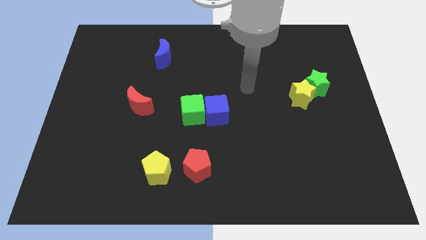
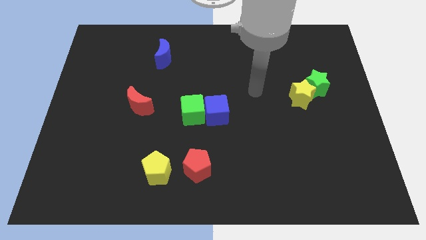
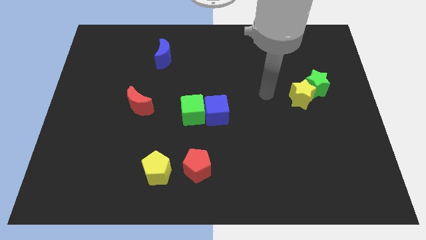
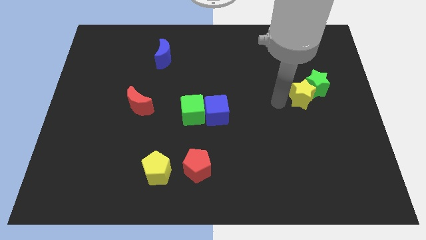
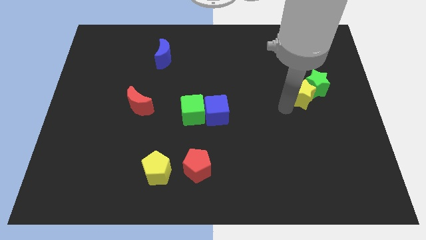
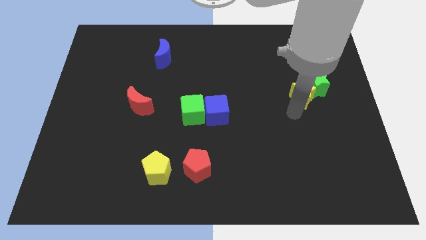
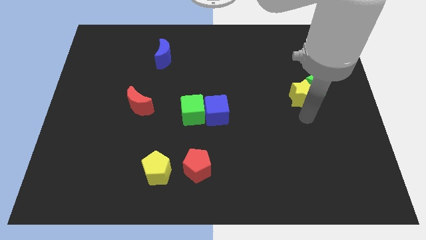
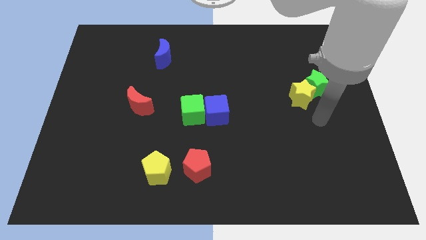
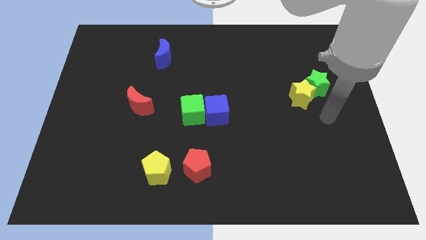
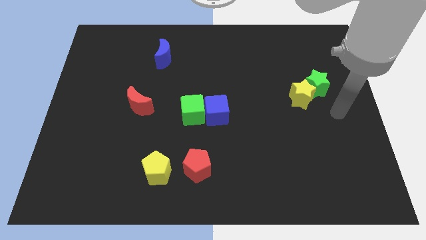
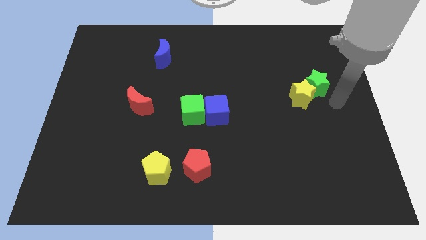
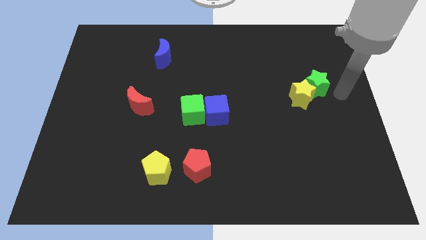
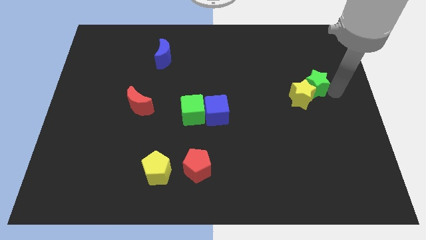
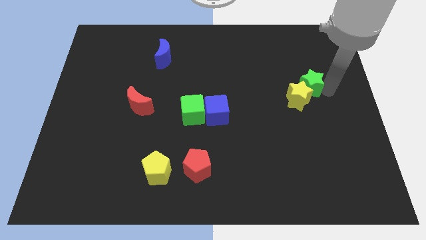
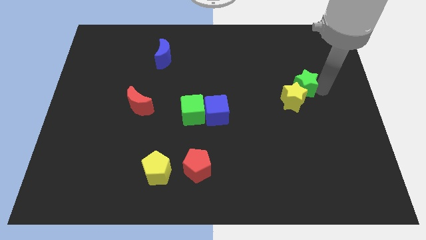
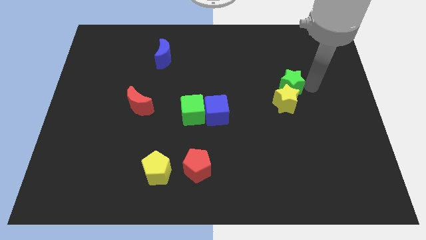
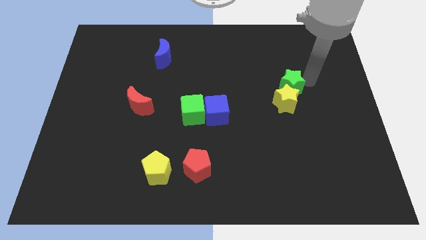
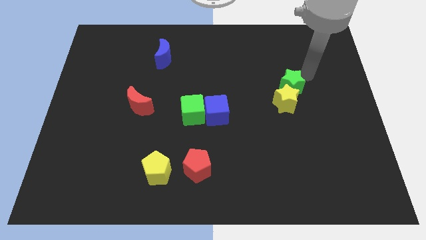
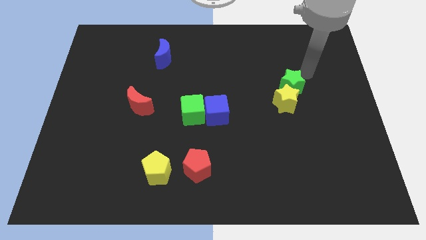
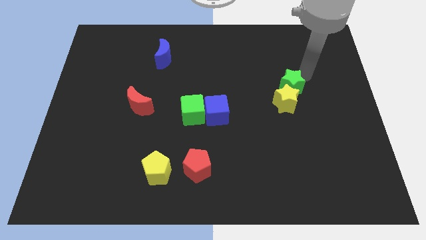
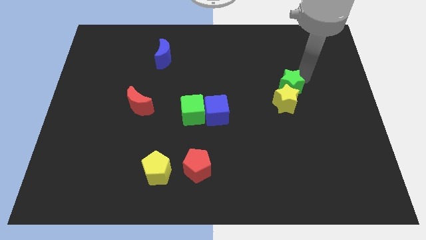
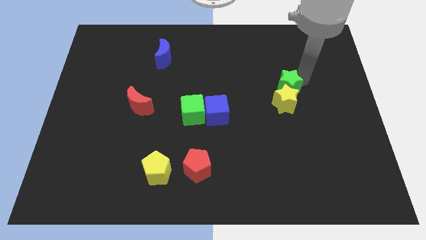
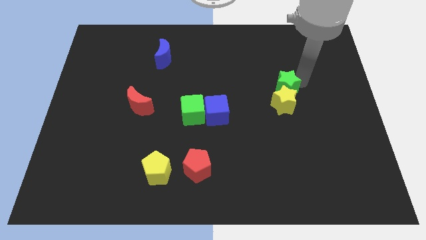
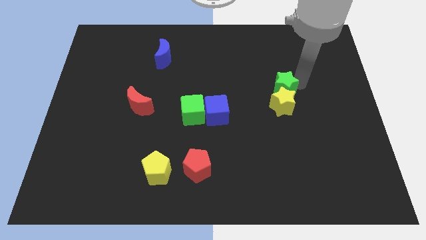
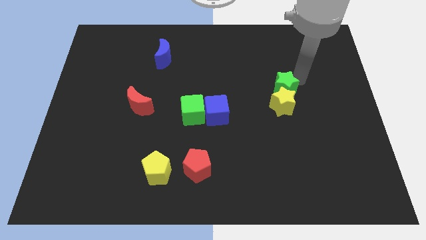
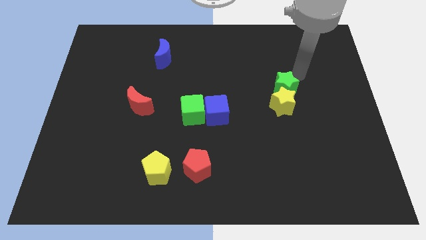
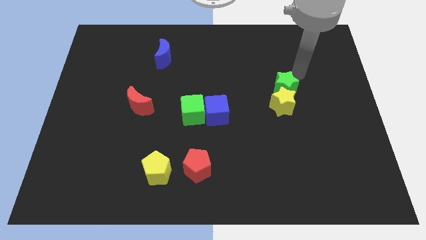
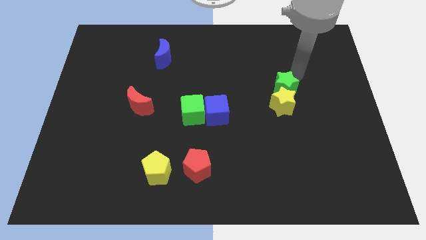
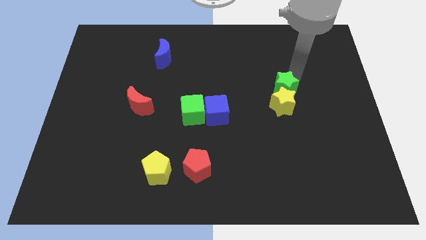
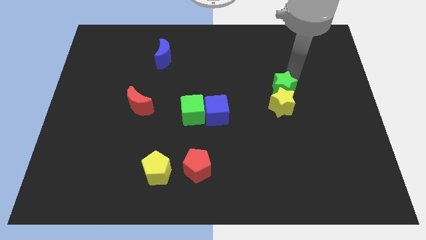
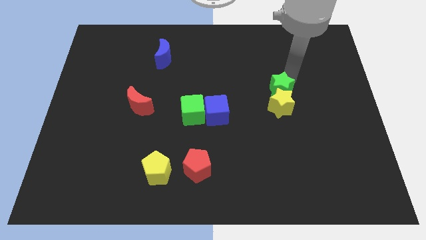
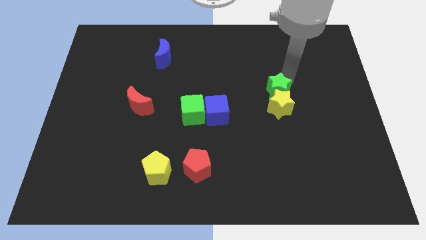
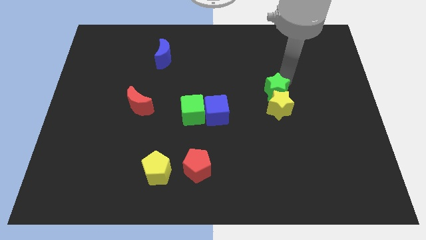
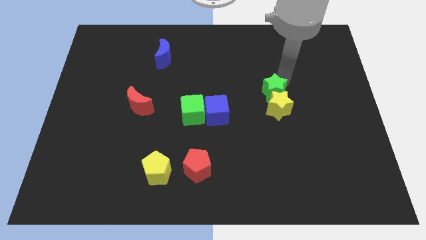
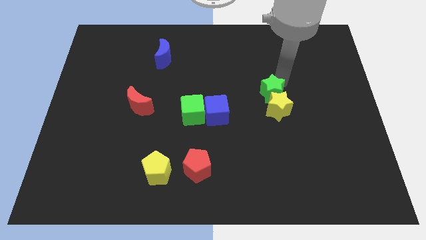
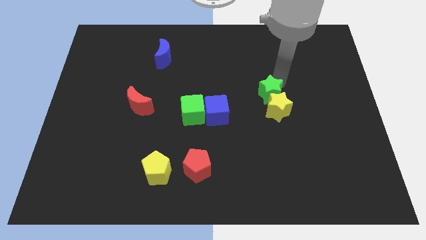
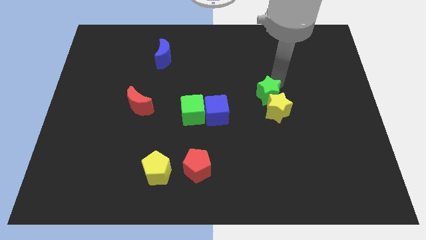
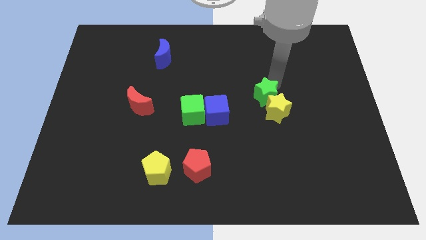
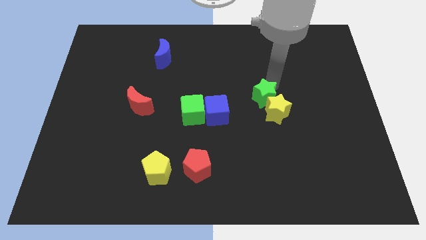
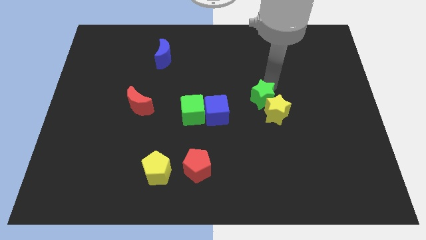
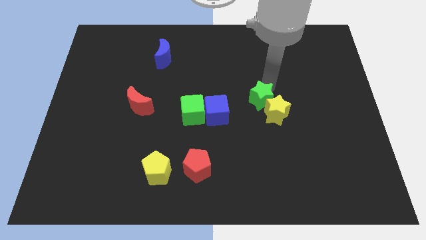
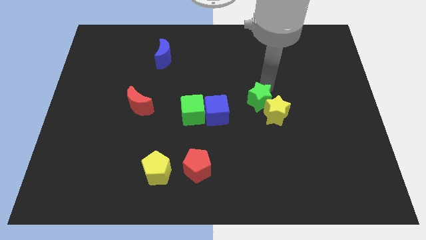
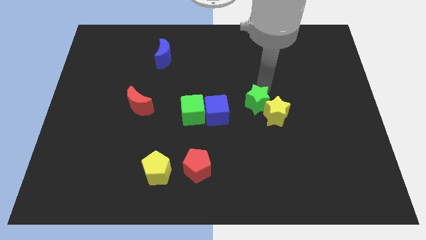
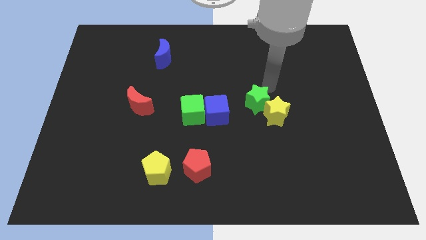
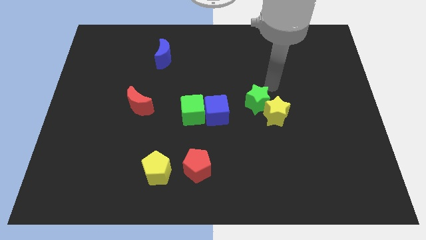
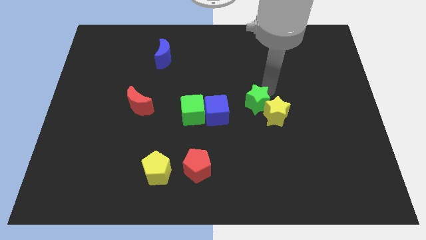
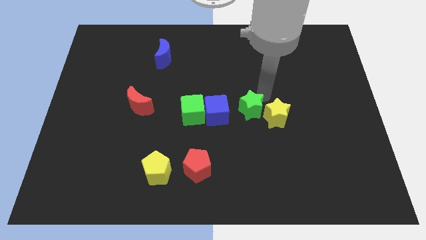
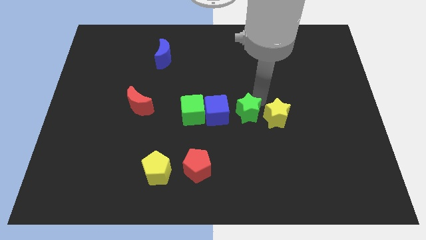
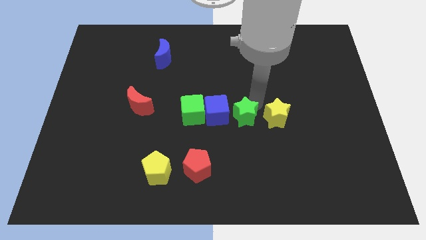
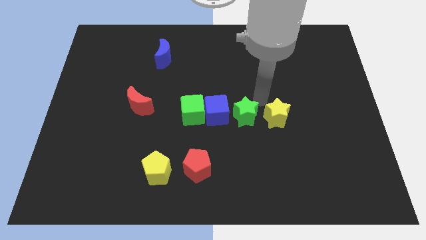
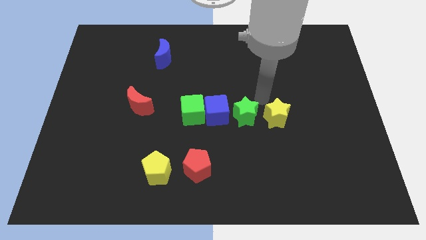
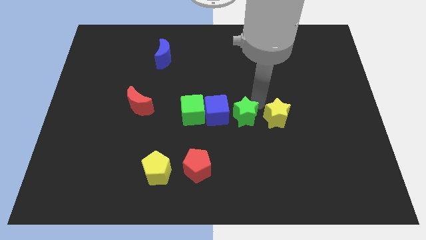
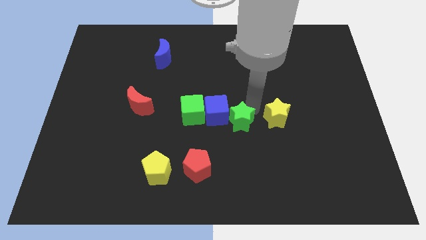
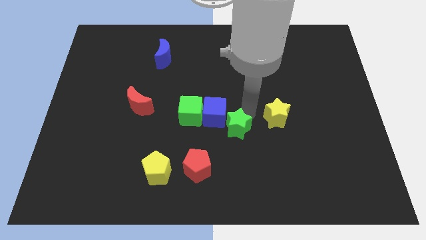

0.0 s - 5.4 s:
slide the green star diagonally down and to the left

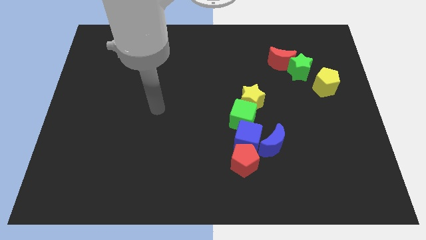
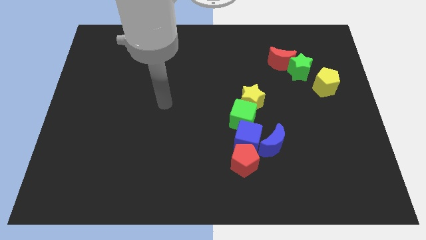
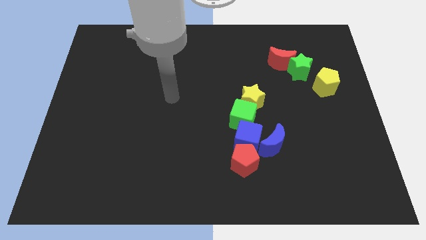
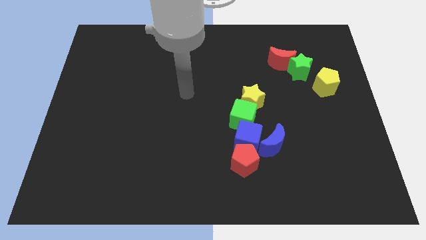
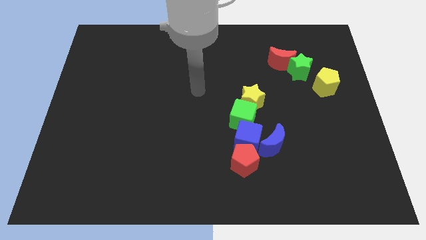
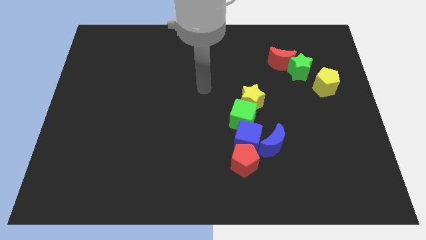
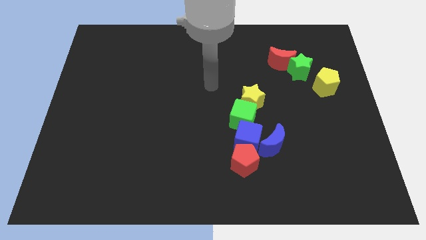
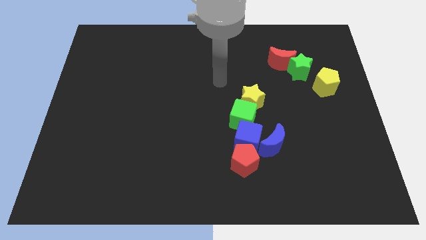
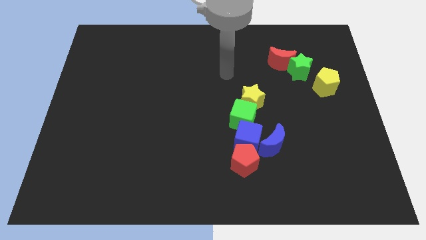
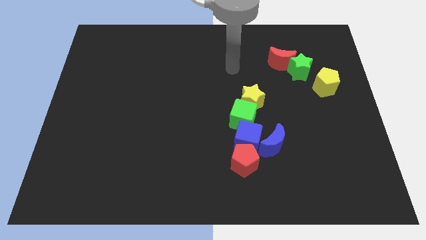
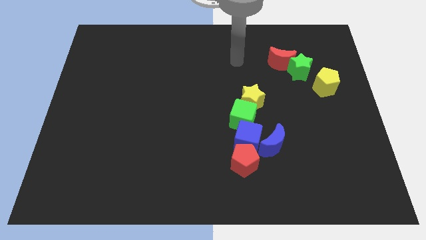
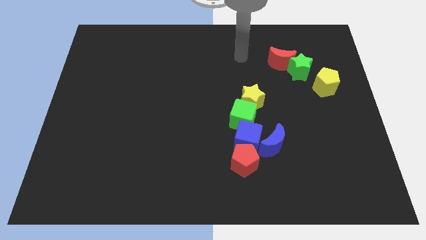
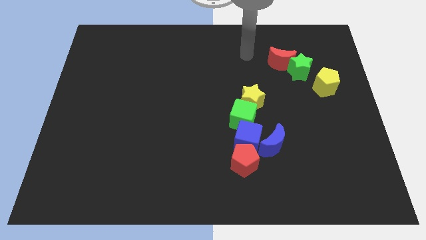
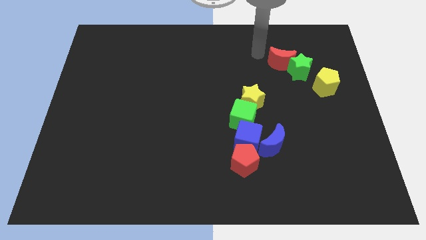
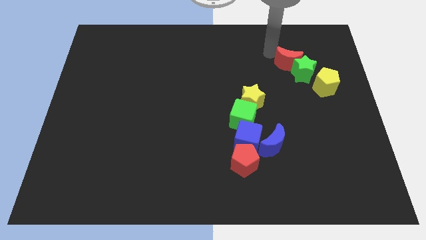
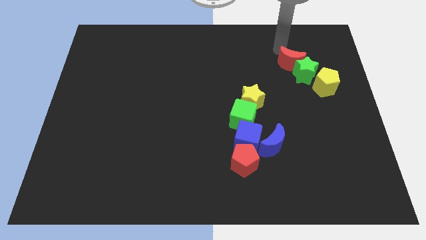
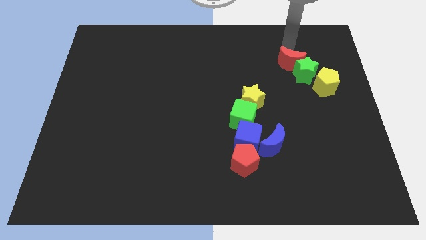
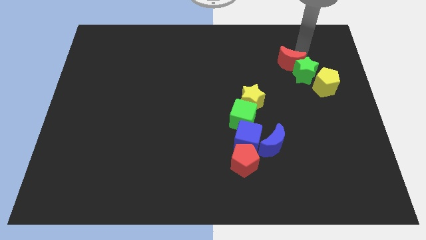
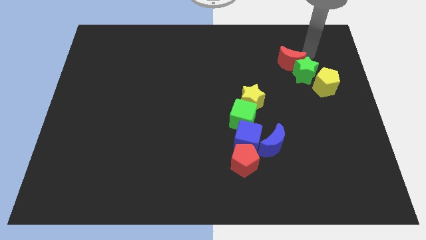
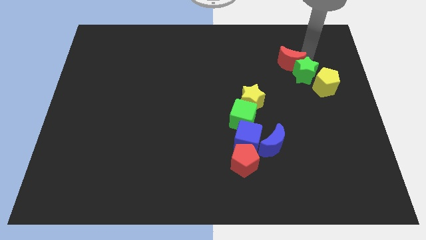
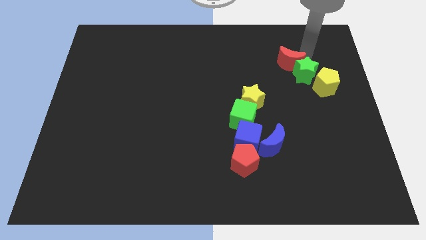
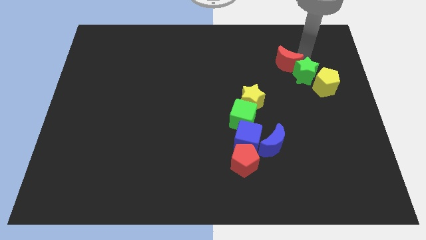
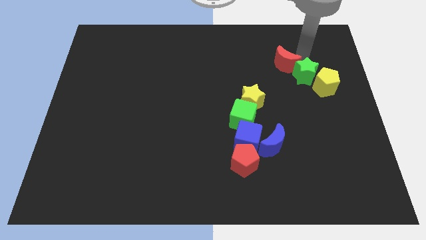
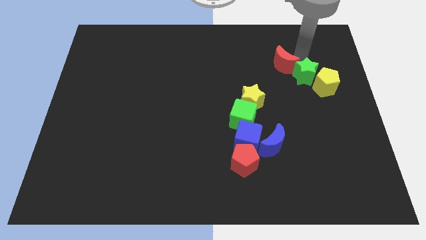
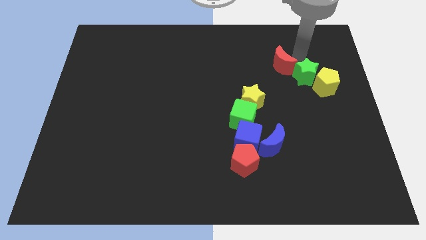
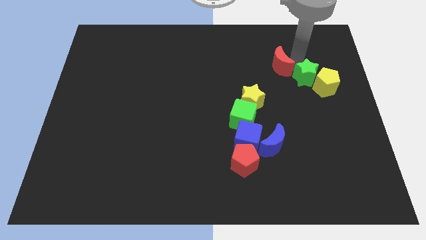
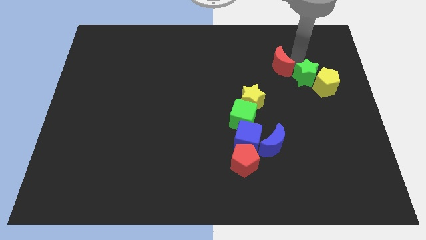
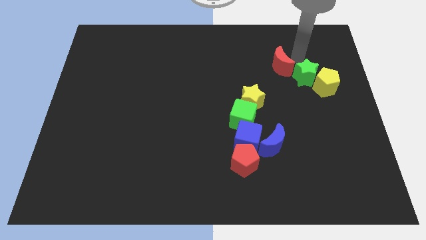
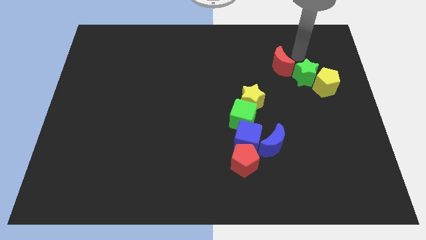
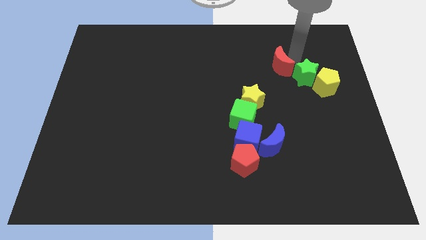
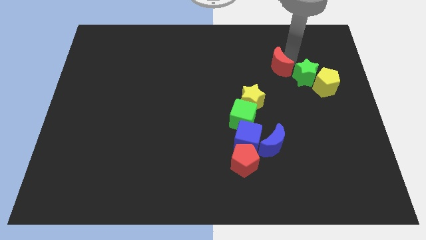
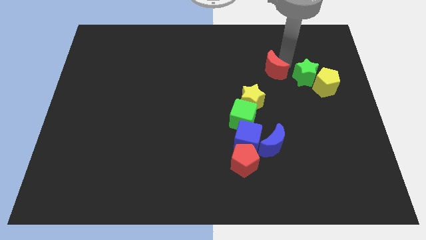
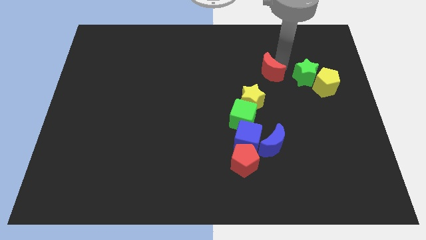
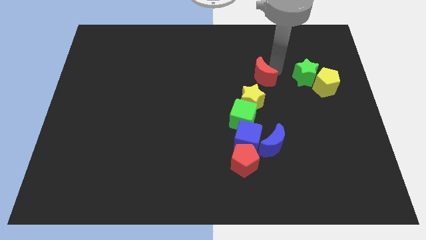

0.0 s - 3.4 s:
slide the red moon a little downwards and then left
